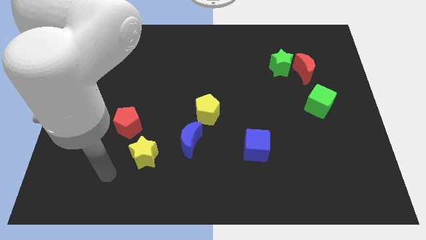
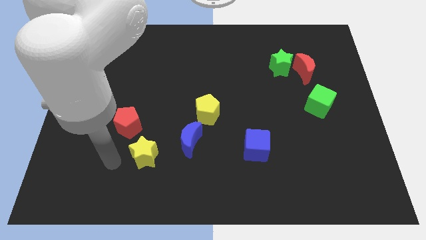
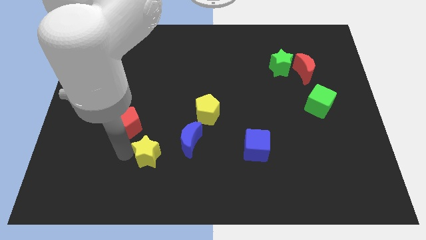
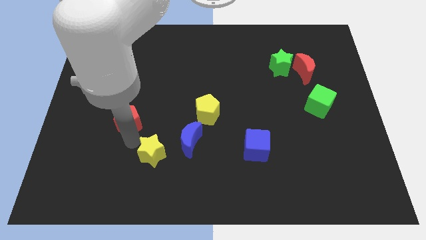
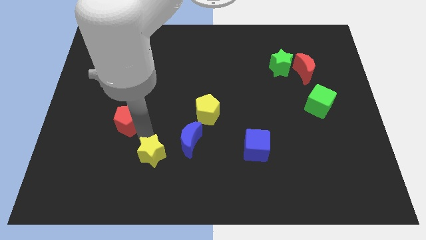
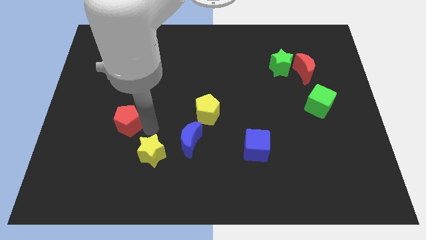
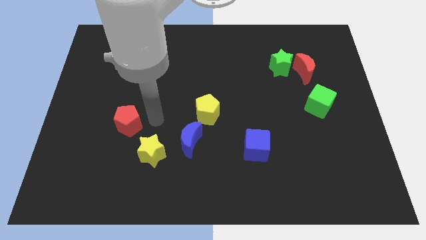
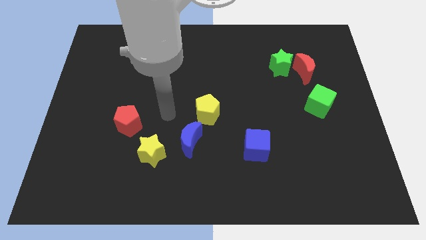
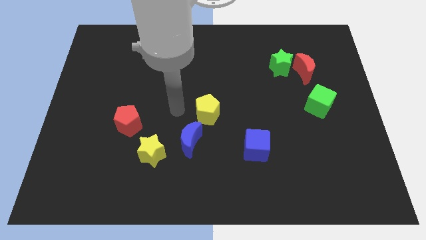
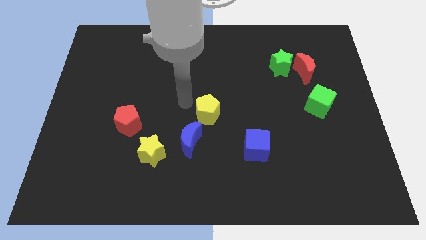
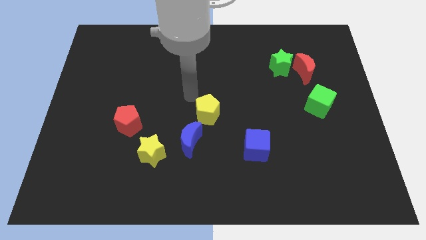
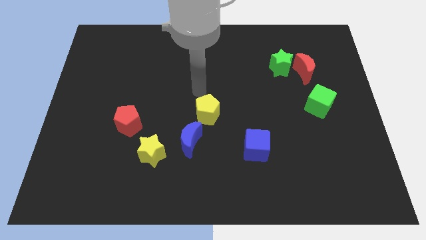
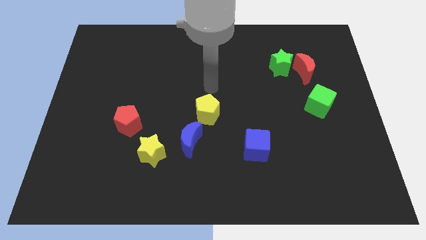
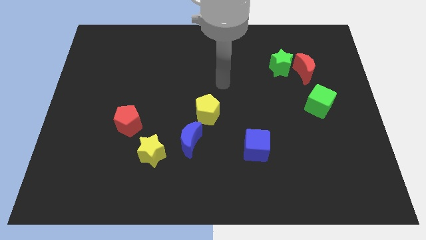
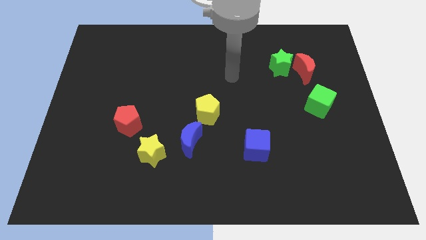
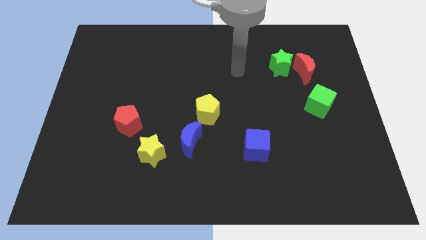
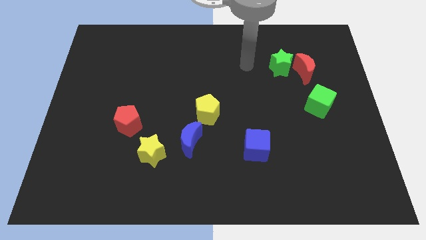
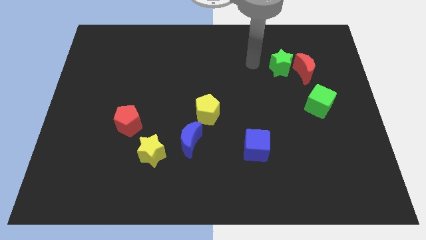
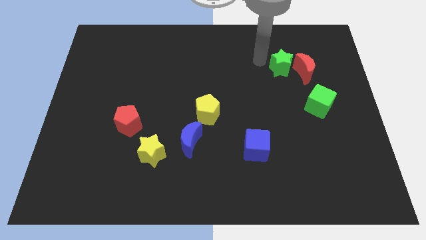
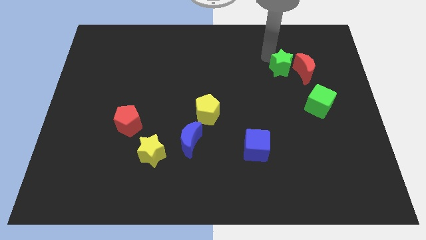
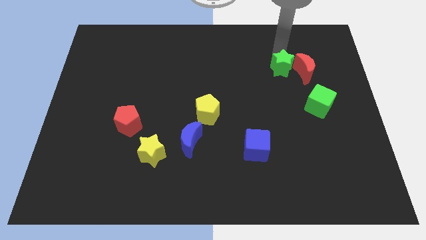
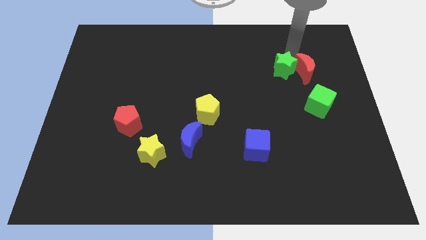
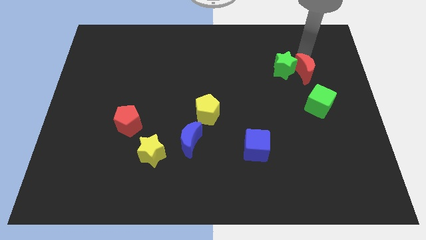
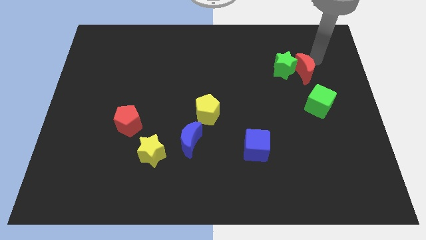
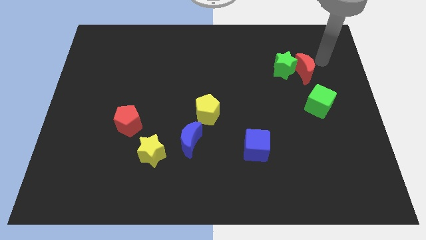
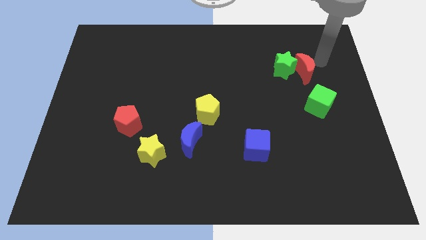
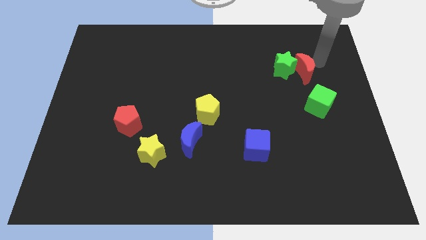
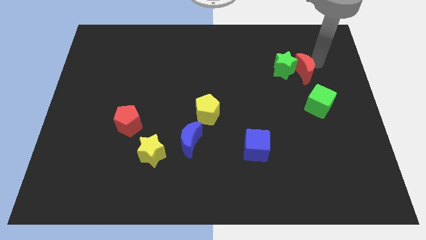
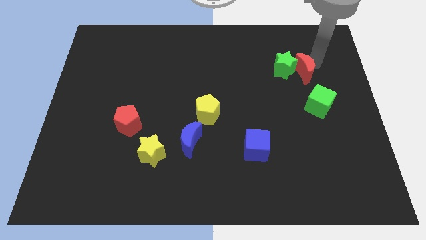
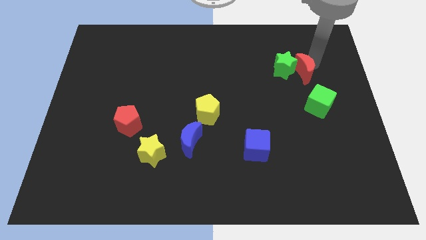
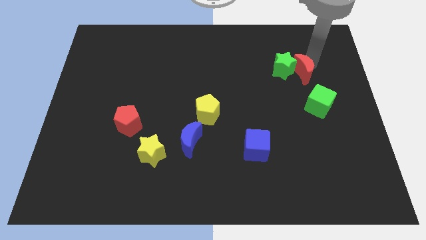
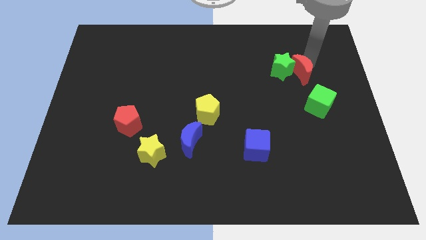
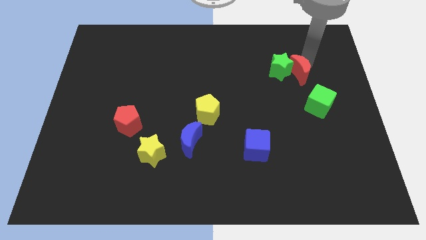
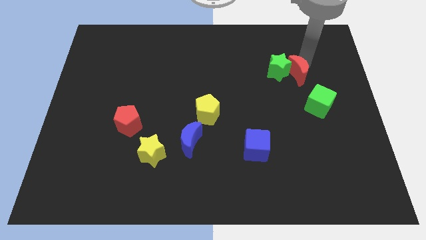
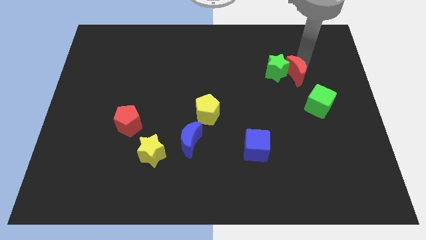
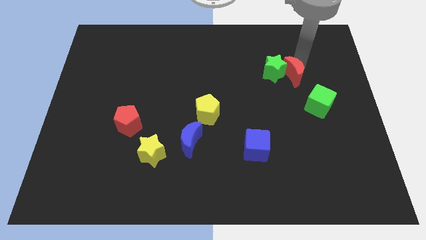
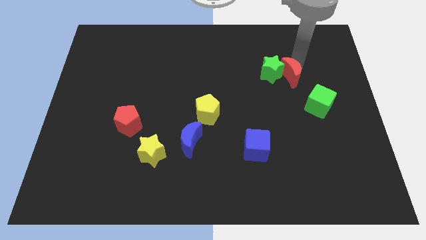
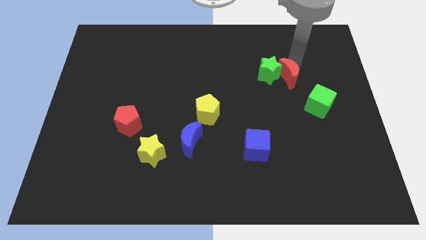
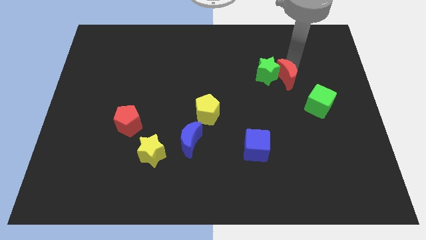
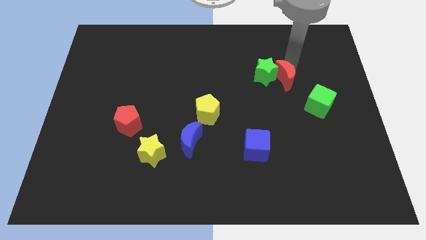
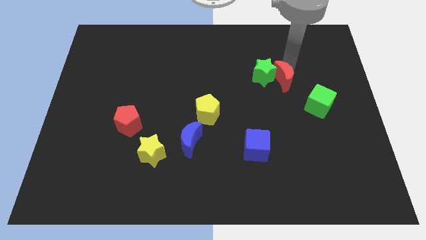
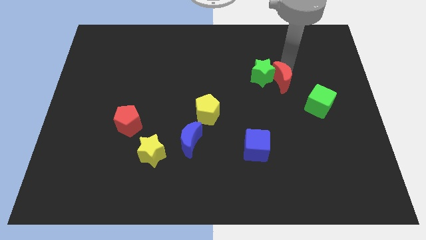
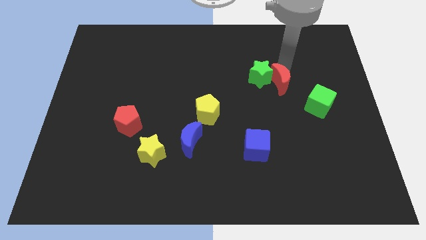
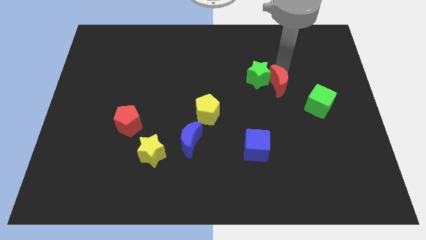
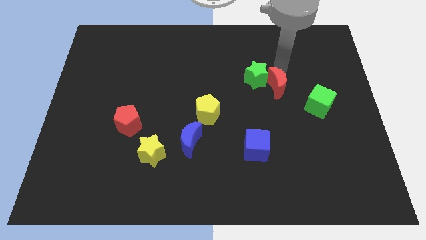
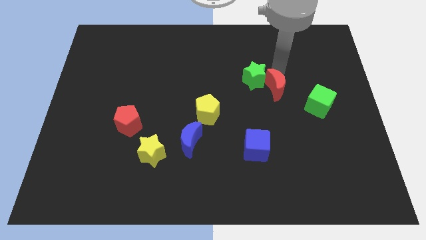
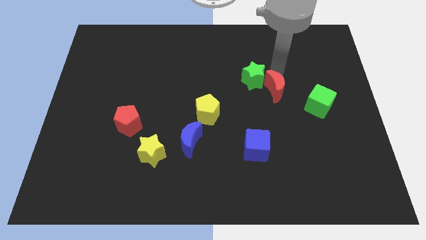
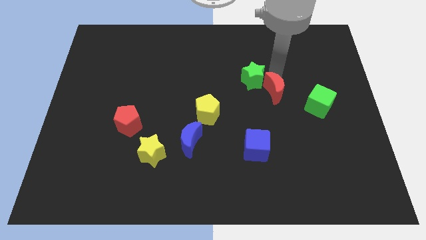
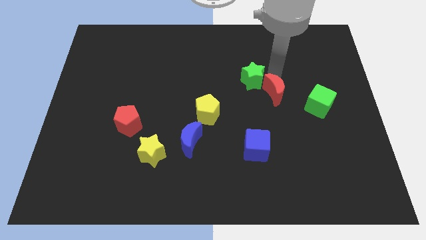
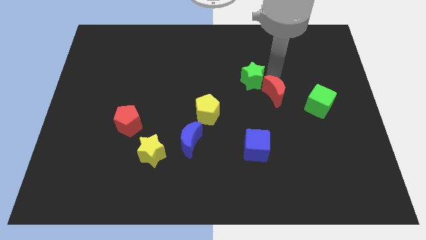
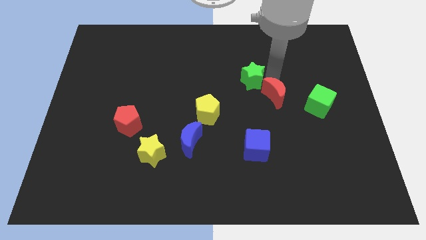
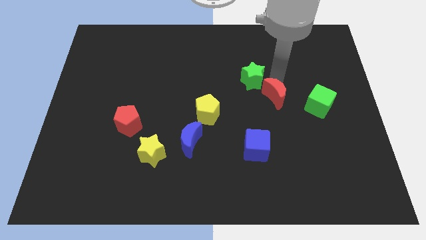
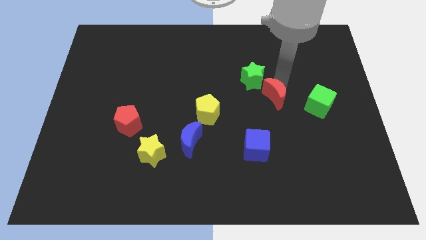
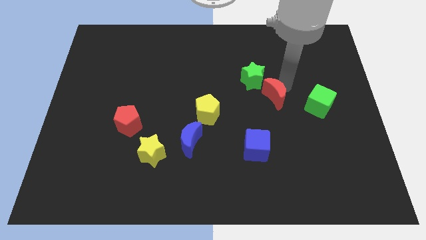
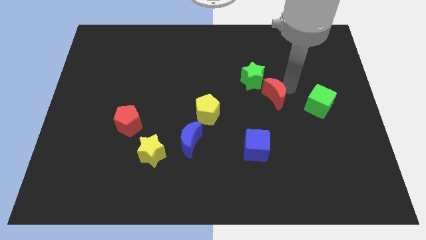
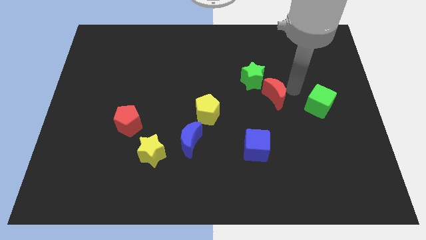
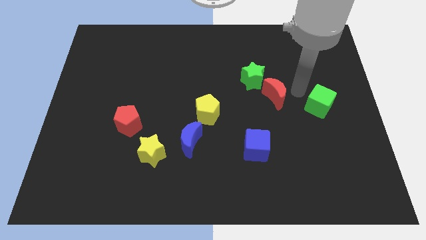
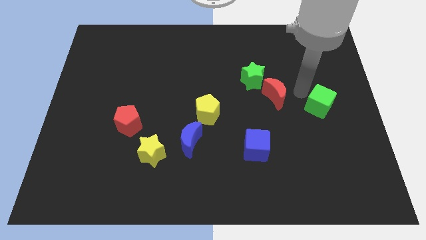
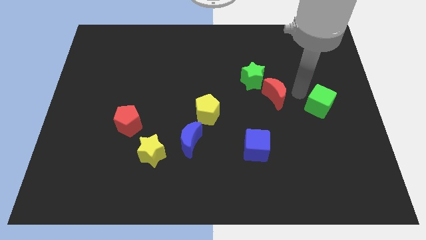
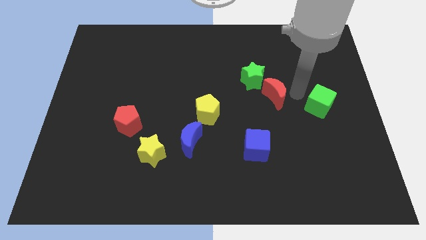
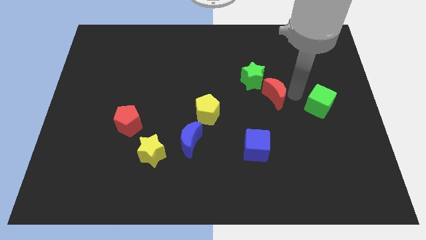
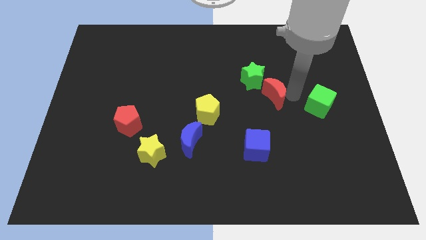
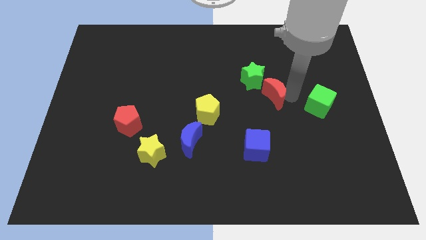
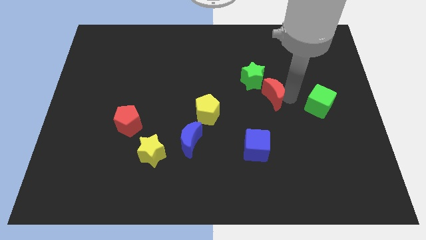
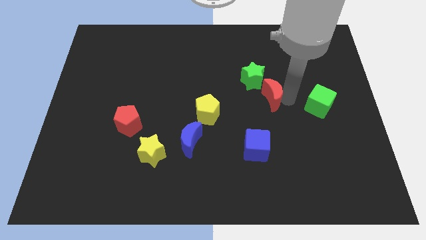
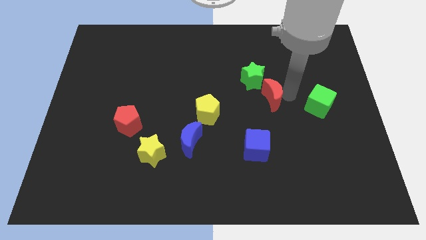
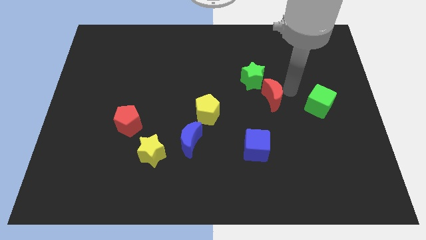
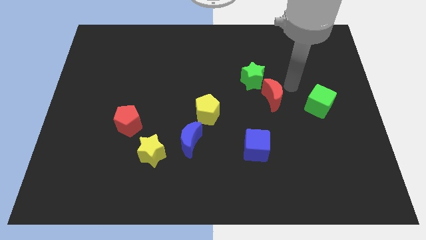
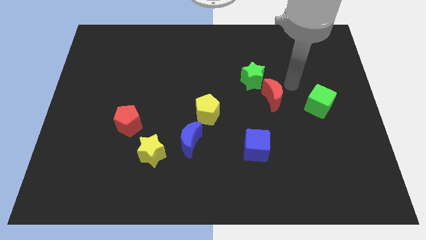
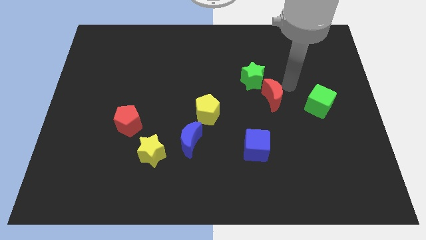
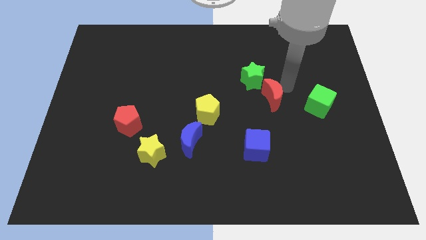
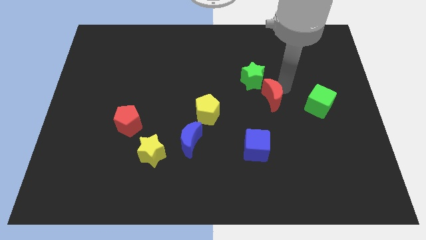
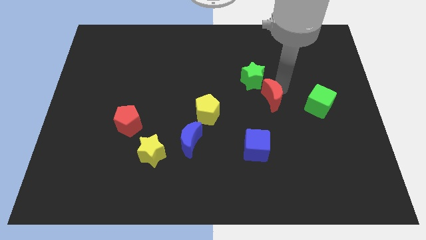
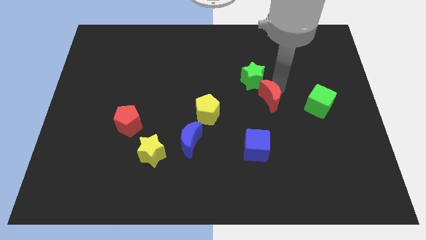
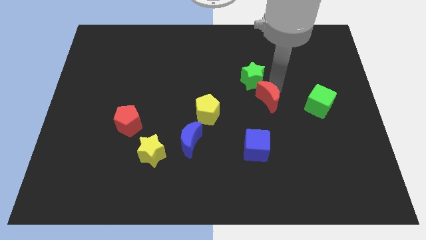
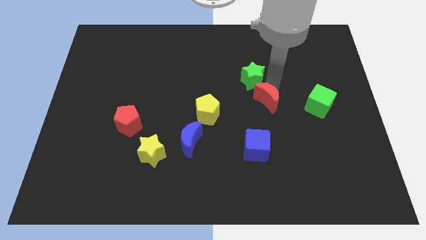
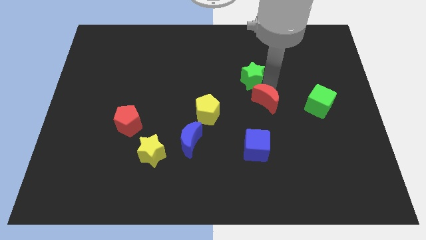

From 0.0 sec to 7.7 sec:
put the red moon to the right of the yellow pentagon

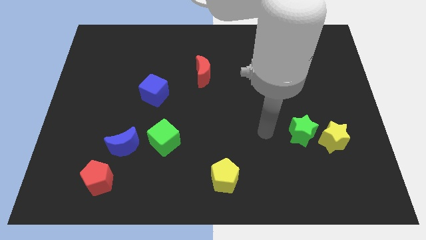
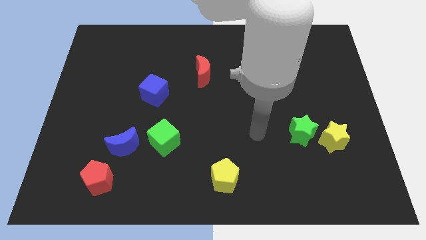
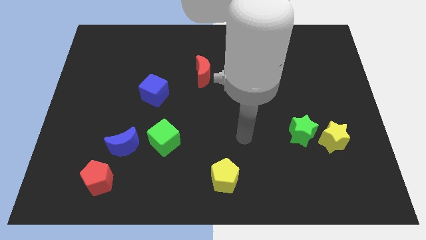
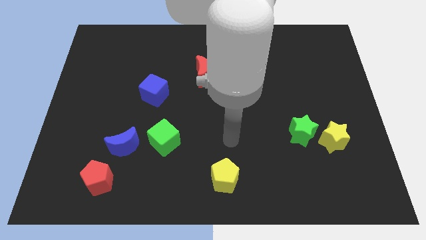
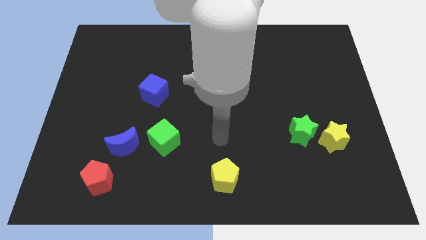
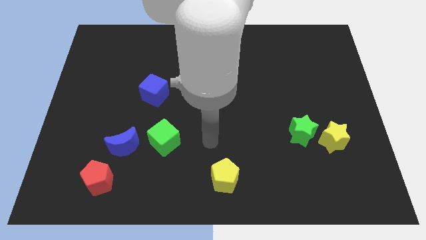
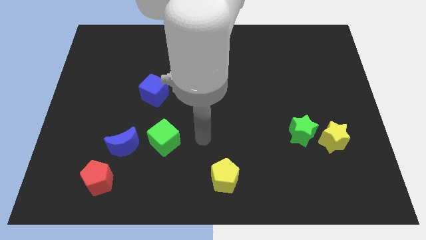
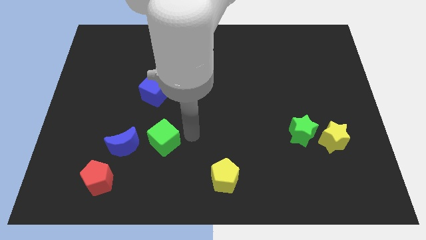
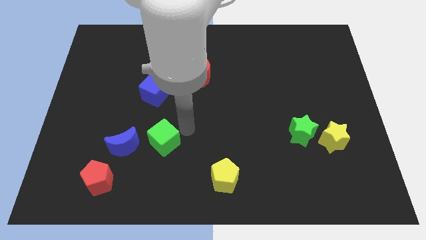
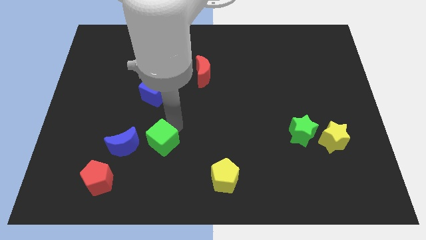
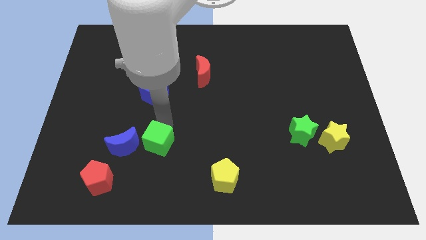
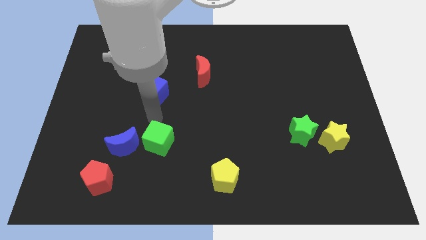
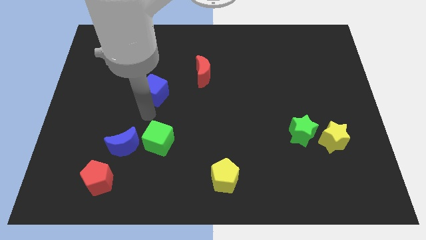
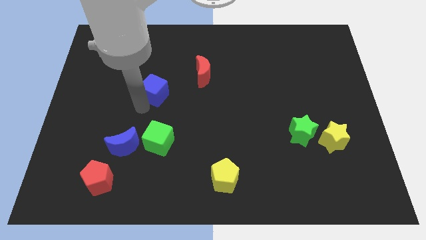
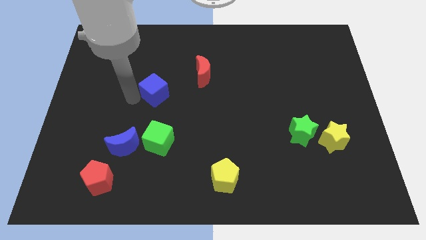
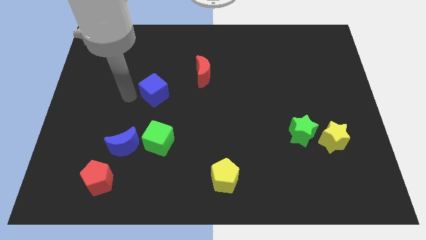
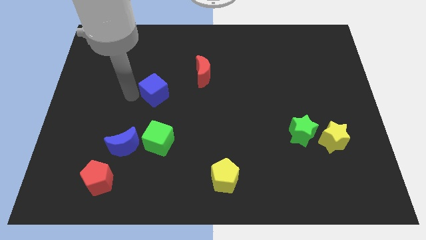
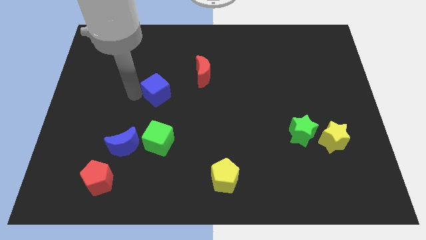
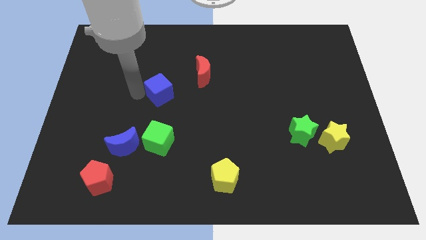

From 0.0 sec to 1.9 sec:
slide the blue cube diagonally down and to the left of the red moon
